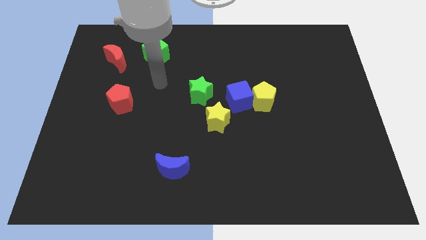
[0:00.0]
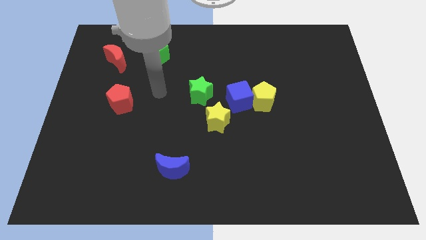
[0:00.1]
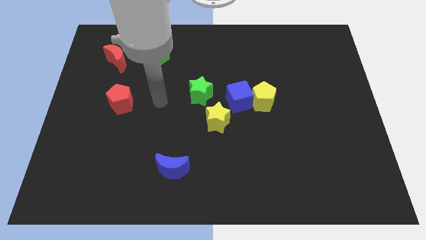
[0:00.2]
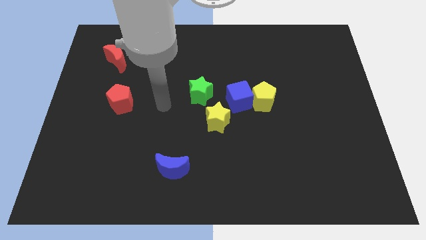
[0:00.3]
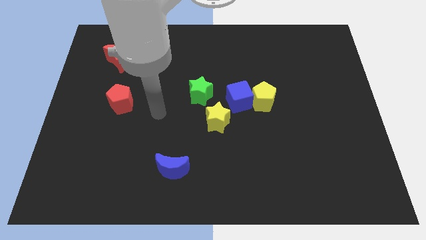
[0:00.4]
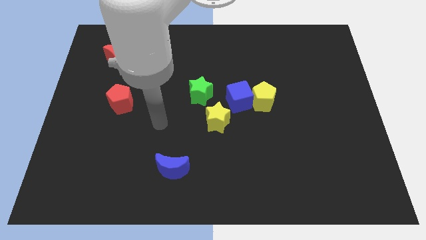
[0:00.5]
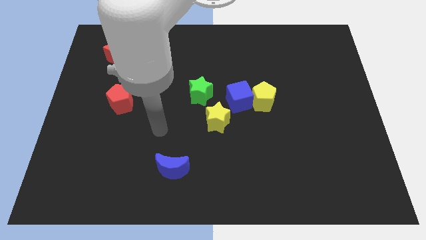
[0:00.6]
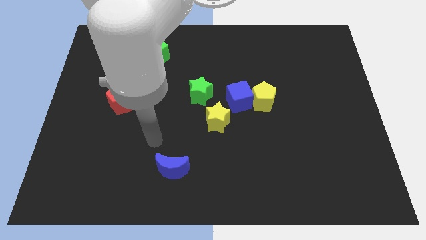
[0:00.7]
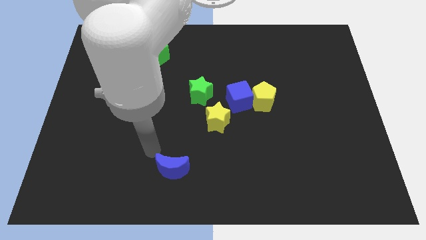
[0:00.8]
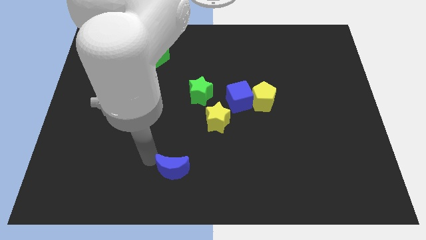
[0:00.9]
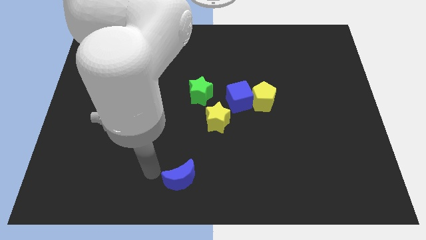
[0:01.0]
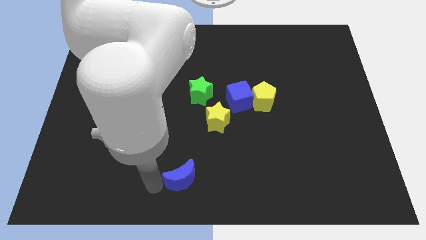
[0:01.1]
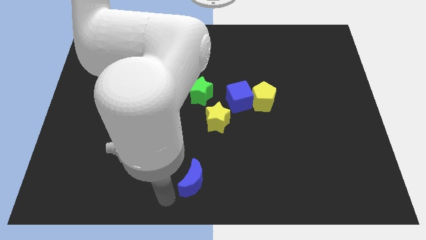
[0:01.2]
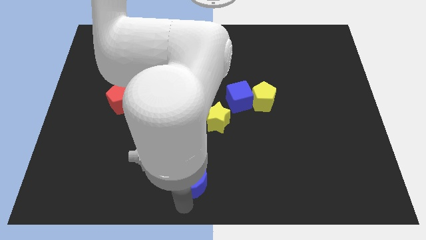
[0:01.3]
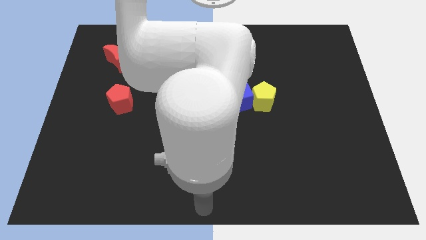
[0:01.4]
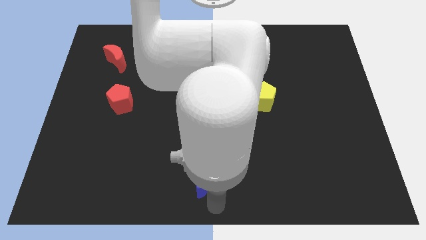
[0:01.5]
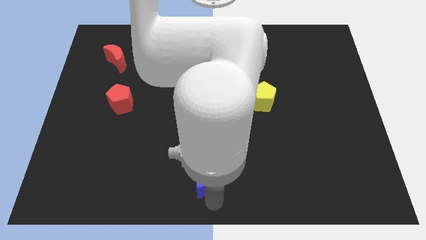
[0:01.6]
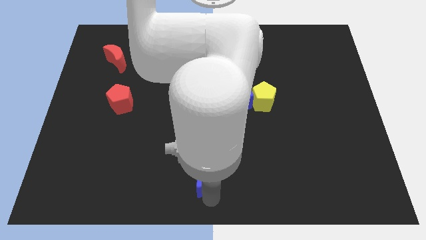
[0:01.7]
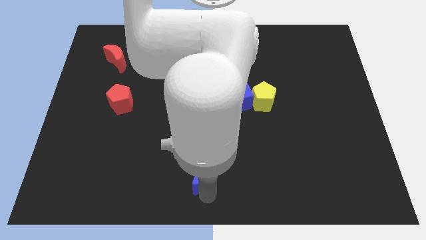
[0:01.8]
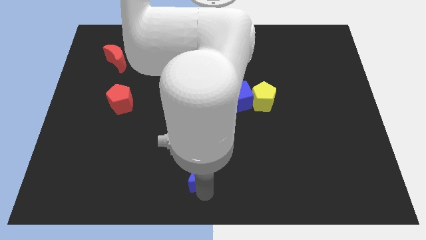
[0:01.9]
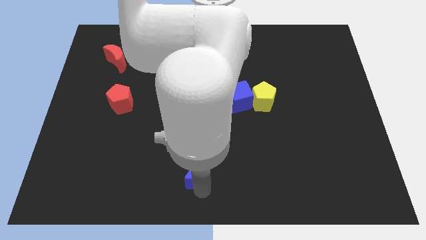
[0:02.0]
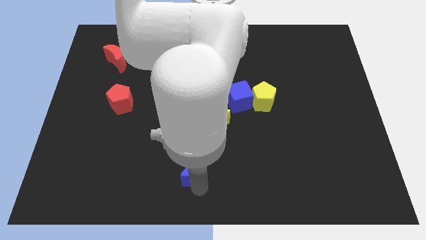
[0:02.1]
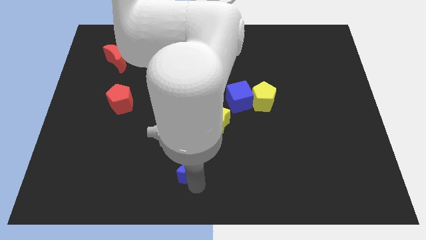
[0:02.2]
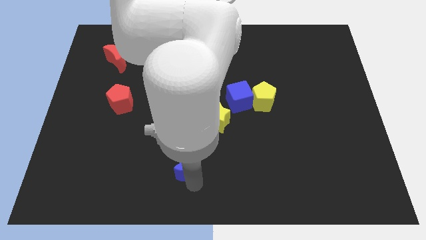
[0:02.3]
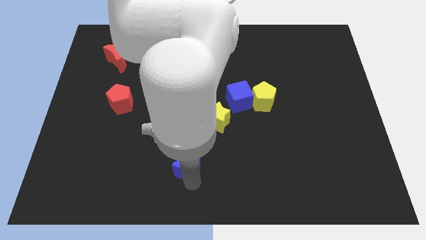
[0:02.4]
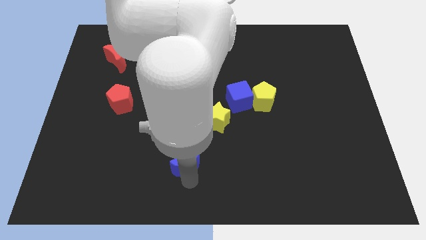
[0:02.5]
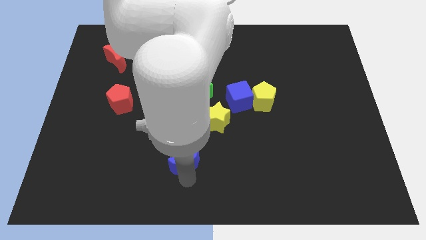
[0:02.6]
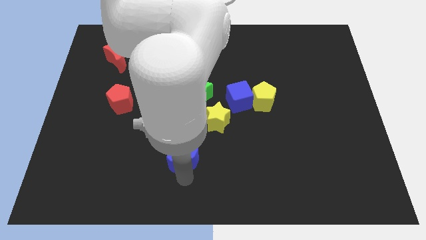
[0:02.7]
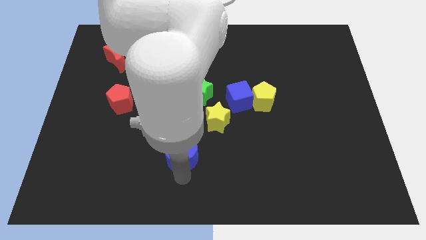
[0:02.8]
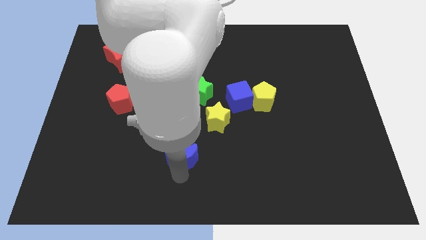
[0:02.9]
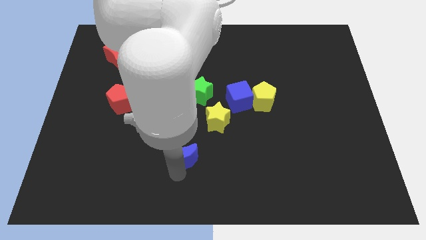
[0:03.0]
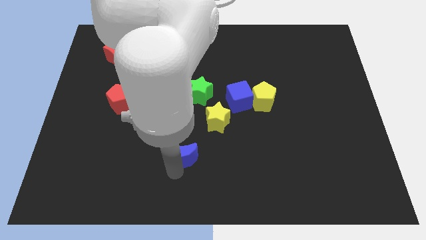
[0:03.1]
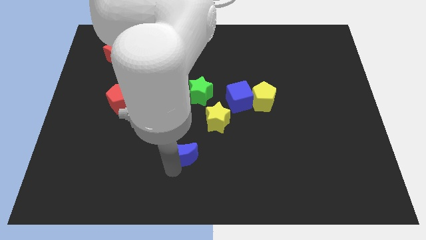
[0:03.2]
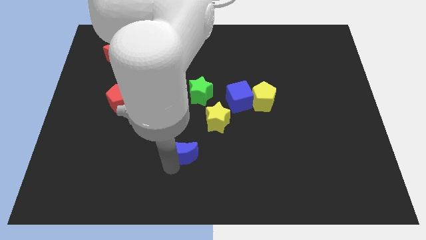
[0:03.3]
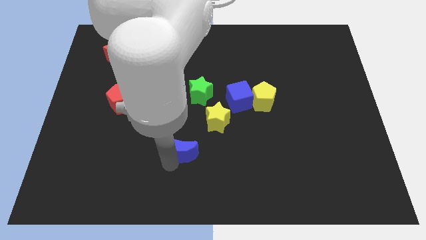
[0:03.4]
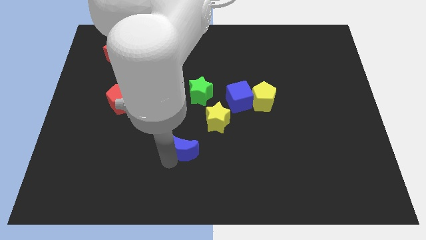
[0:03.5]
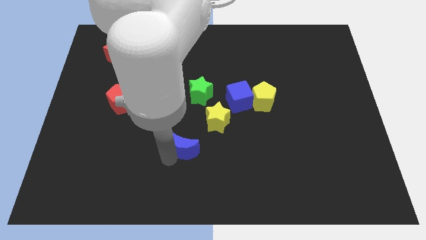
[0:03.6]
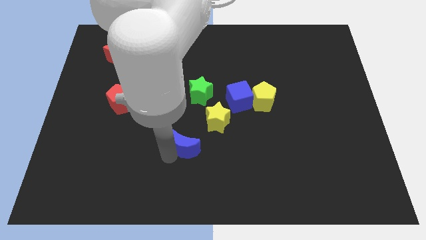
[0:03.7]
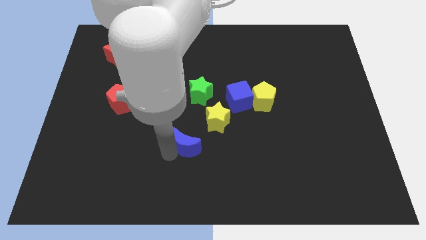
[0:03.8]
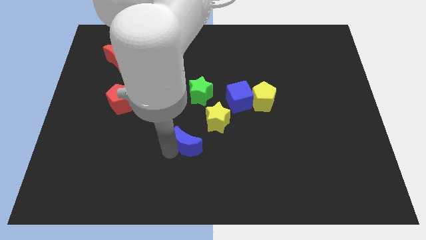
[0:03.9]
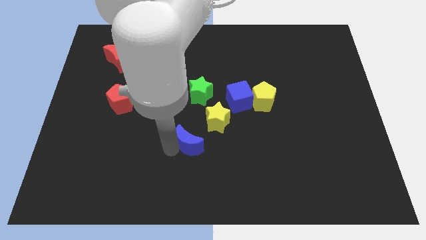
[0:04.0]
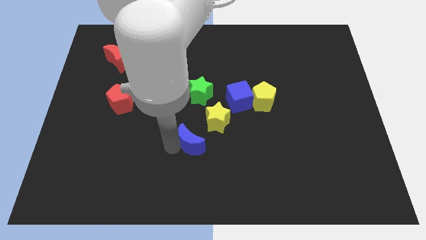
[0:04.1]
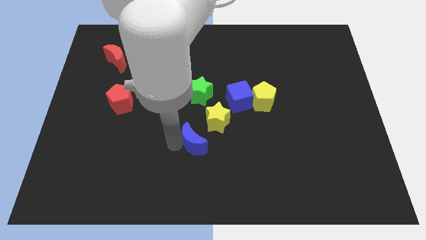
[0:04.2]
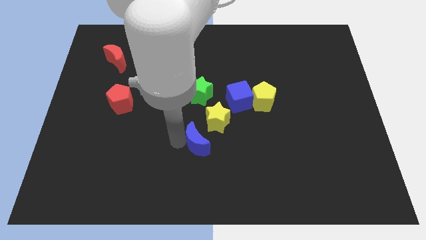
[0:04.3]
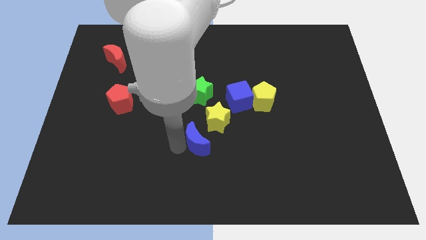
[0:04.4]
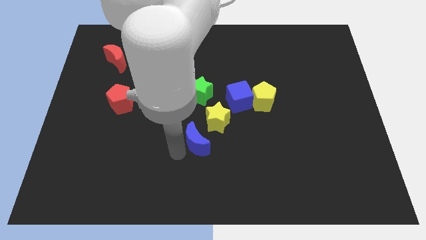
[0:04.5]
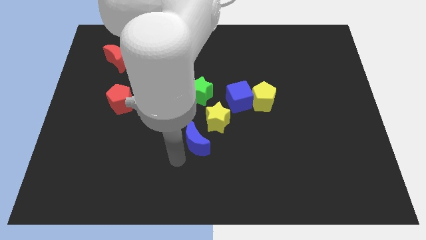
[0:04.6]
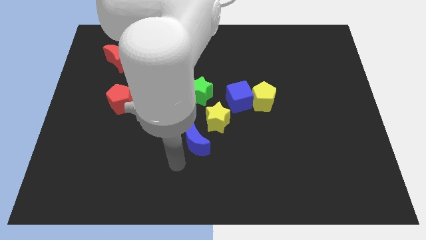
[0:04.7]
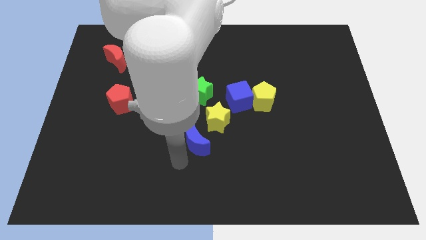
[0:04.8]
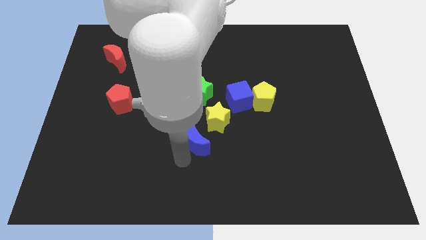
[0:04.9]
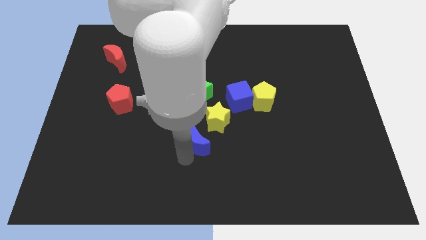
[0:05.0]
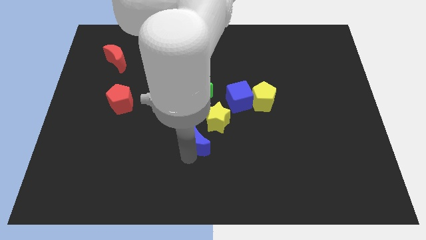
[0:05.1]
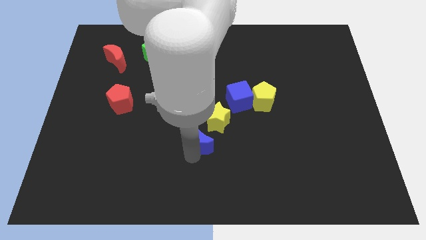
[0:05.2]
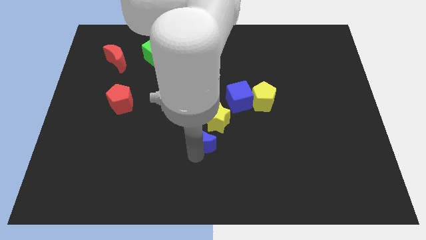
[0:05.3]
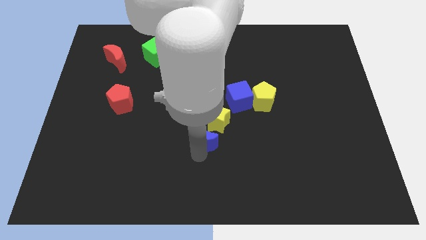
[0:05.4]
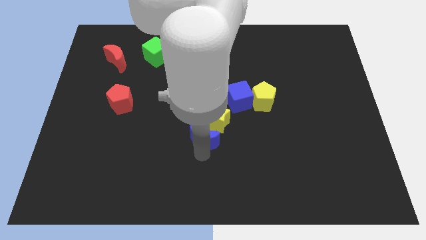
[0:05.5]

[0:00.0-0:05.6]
put the blue moon to the yellow star

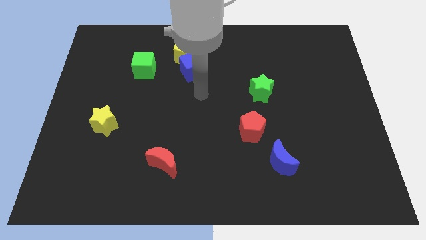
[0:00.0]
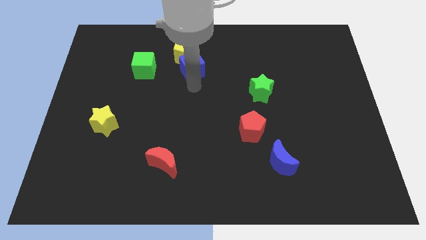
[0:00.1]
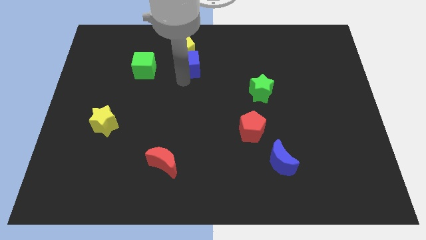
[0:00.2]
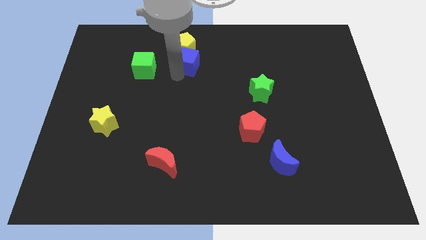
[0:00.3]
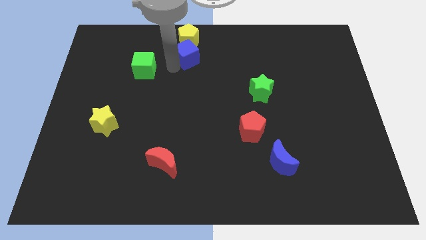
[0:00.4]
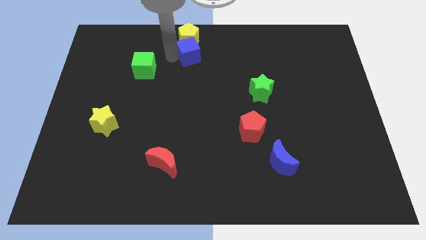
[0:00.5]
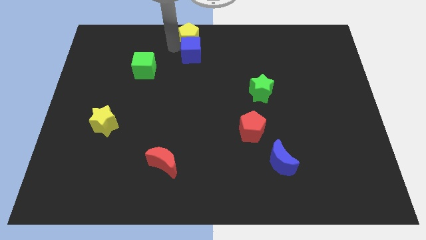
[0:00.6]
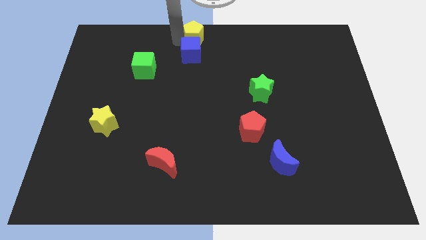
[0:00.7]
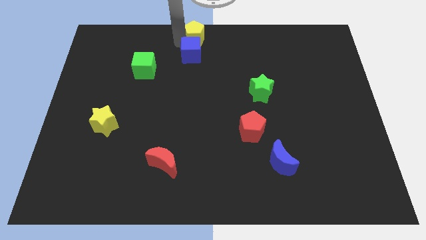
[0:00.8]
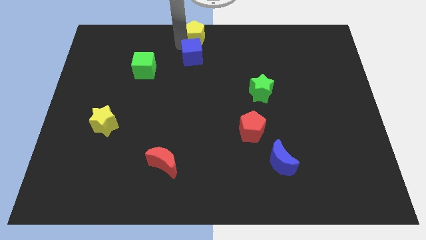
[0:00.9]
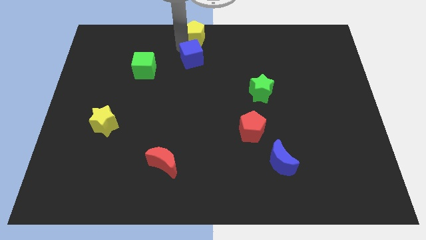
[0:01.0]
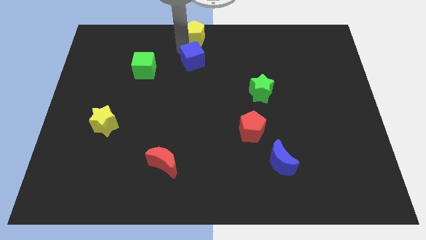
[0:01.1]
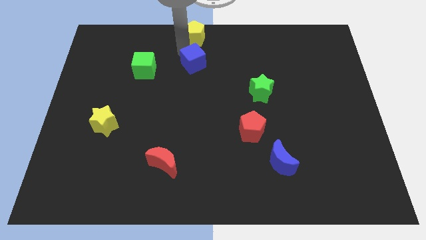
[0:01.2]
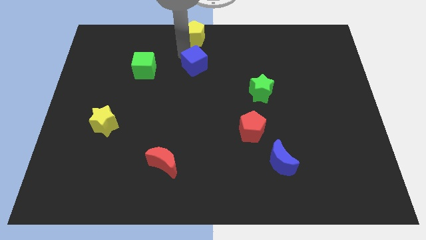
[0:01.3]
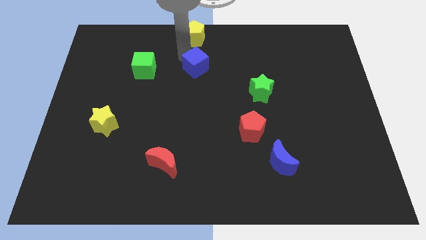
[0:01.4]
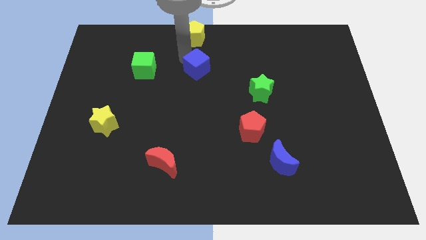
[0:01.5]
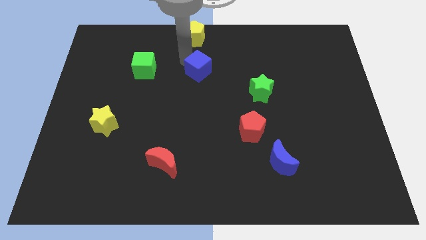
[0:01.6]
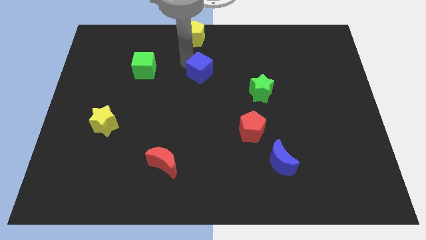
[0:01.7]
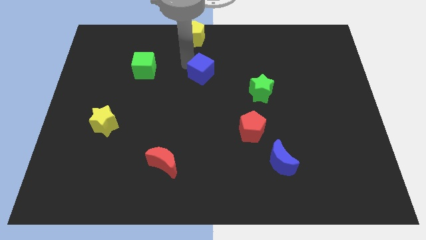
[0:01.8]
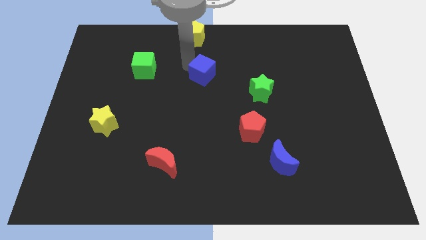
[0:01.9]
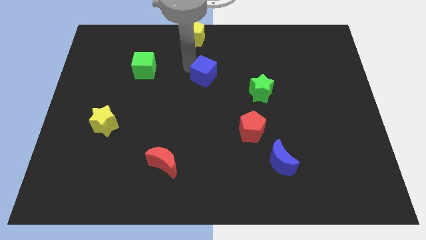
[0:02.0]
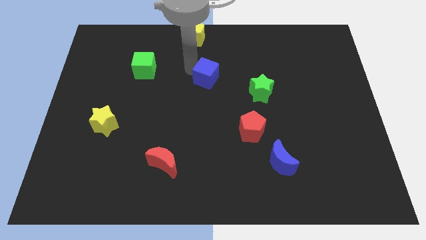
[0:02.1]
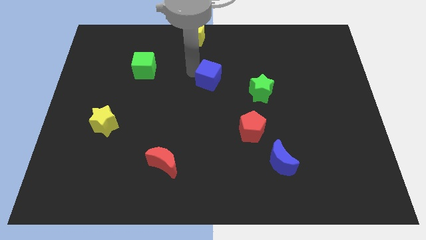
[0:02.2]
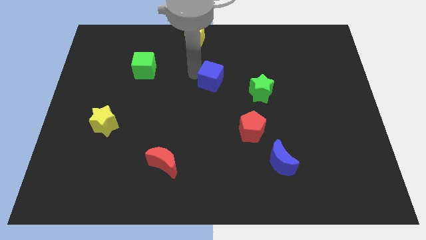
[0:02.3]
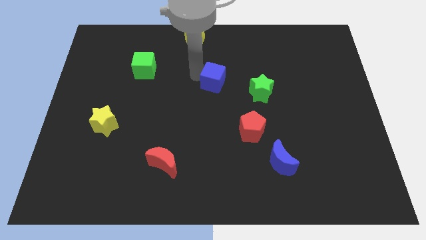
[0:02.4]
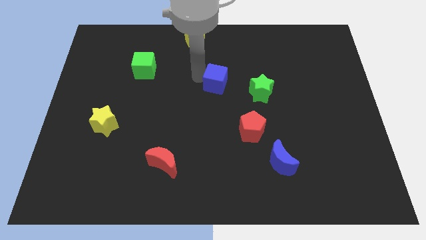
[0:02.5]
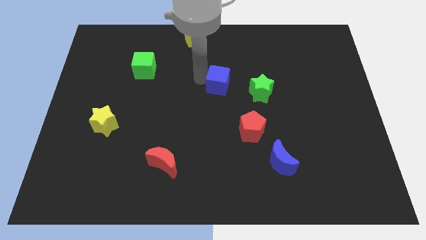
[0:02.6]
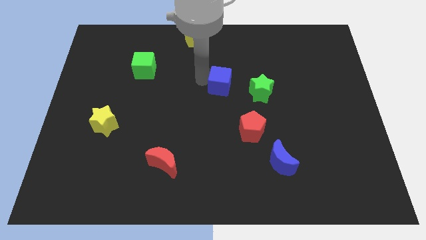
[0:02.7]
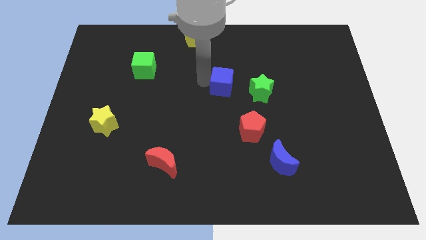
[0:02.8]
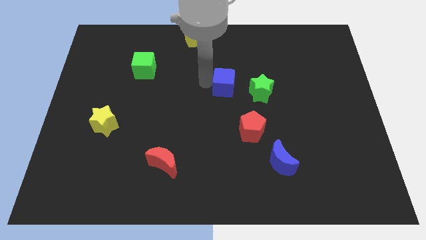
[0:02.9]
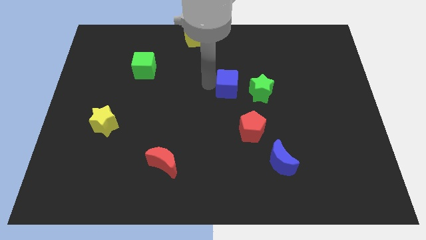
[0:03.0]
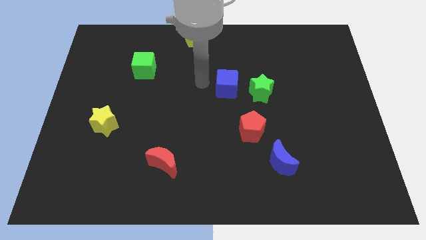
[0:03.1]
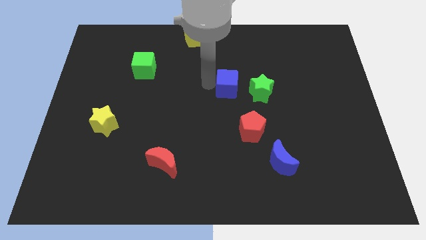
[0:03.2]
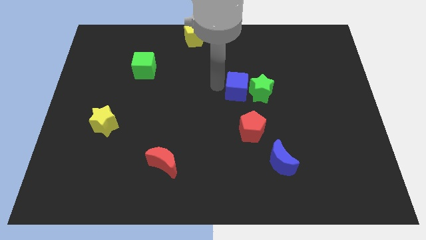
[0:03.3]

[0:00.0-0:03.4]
slide the blue cube towards the green star
